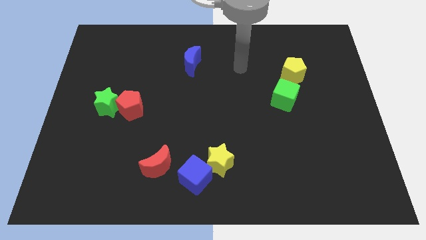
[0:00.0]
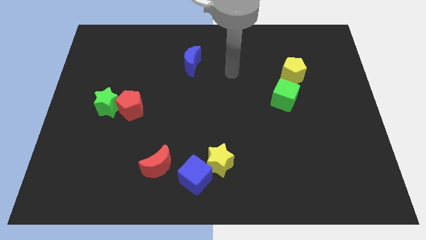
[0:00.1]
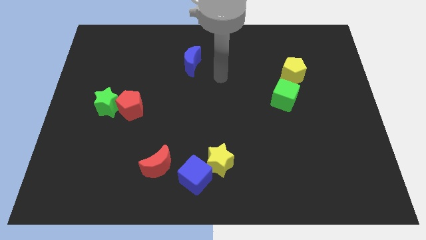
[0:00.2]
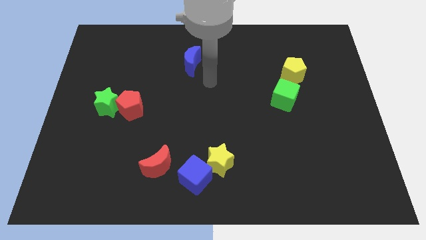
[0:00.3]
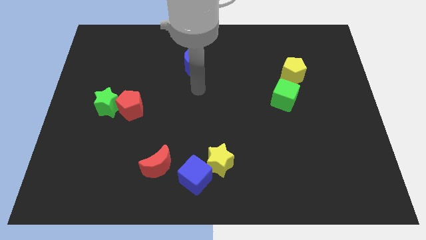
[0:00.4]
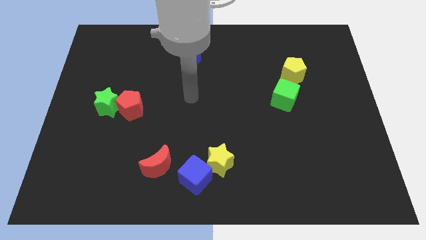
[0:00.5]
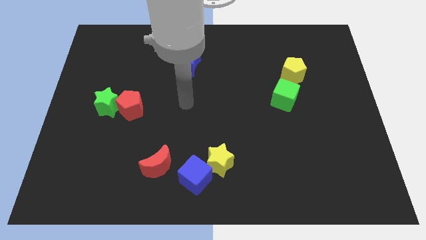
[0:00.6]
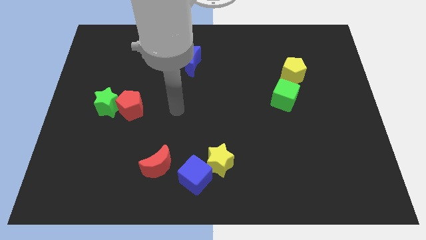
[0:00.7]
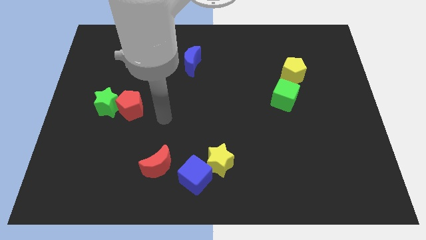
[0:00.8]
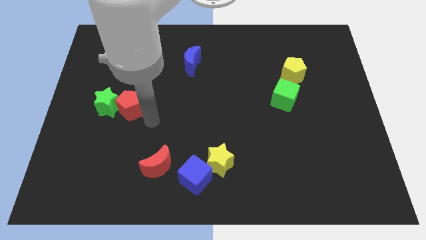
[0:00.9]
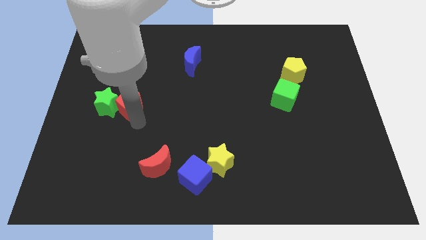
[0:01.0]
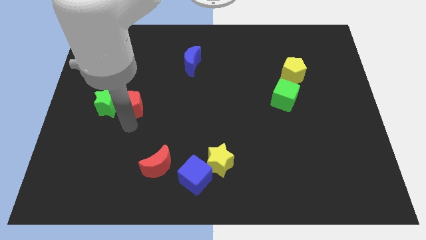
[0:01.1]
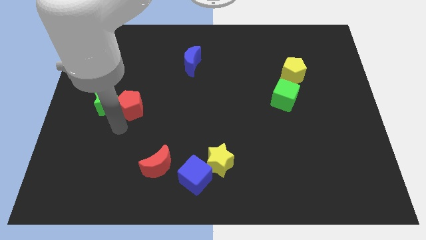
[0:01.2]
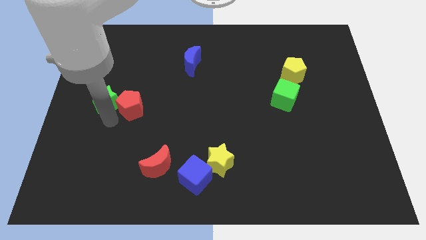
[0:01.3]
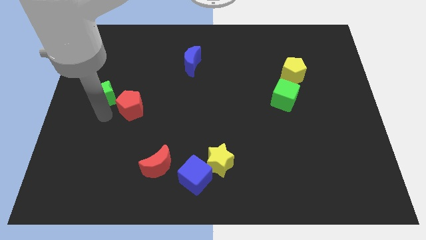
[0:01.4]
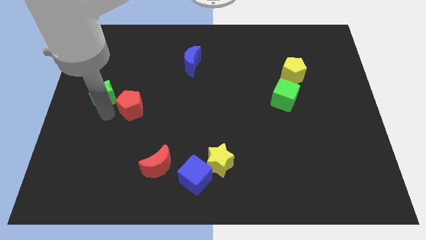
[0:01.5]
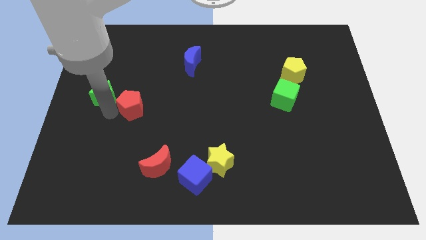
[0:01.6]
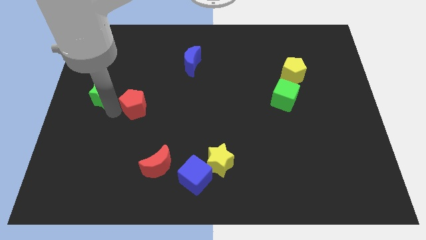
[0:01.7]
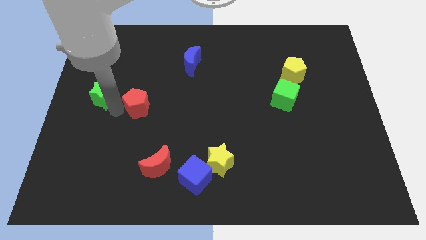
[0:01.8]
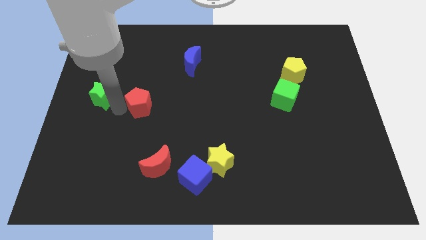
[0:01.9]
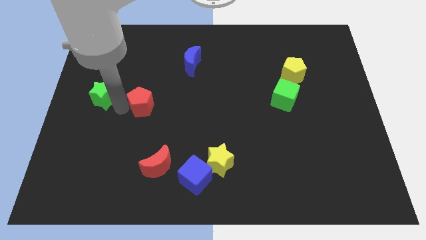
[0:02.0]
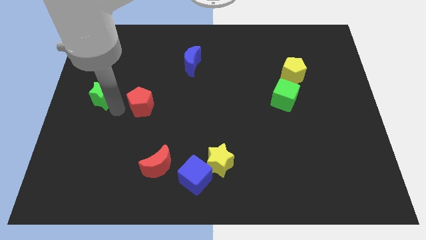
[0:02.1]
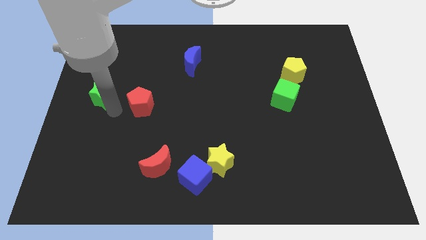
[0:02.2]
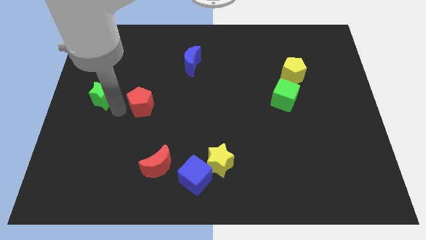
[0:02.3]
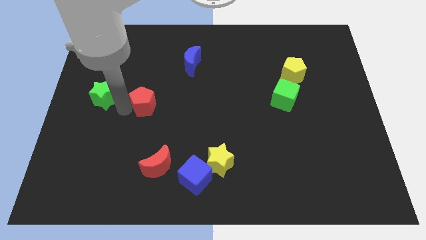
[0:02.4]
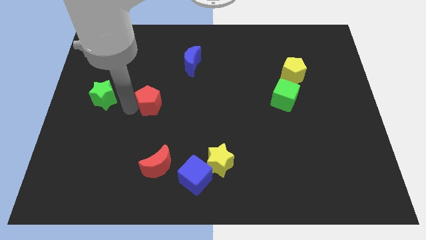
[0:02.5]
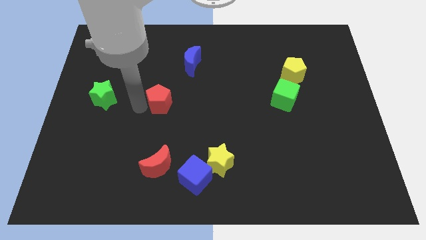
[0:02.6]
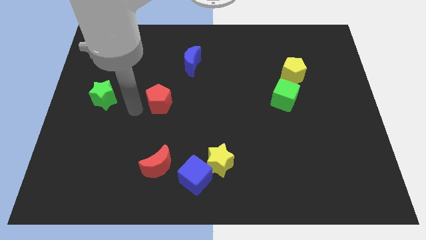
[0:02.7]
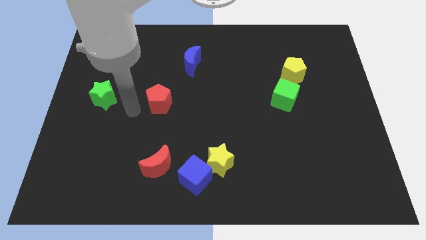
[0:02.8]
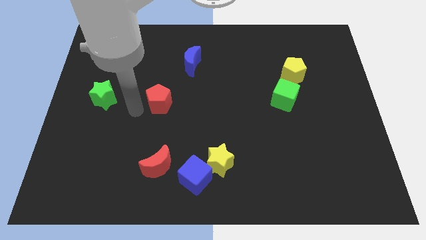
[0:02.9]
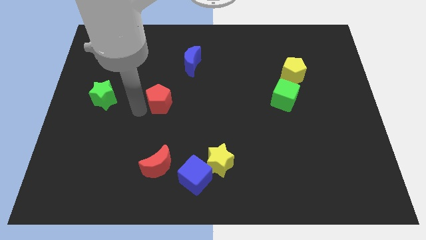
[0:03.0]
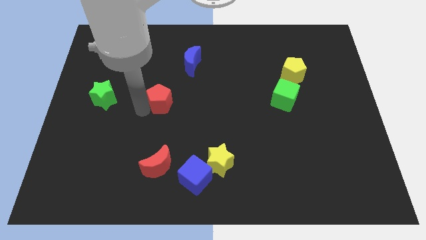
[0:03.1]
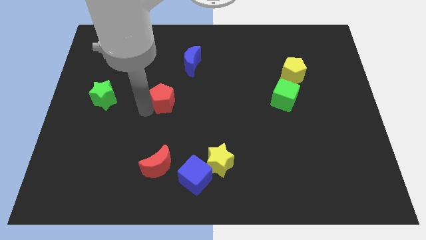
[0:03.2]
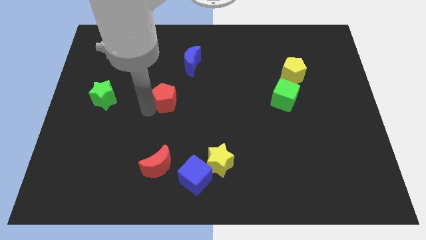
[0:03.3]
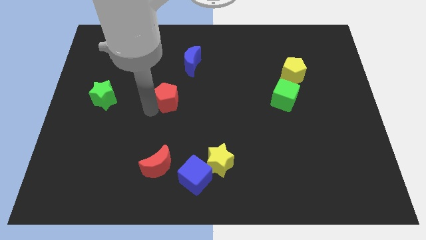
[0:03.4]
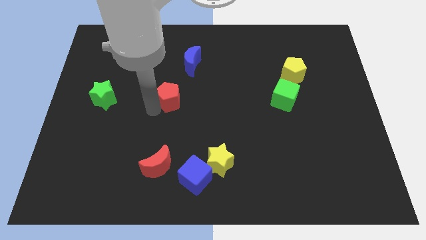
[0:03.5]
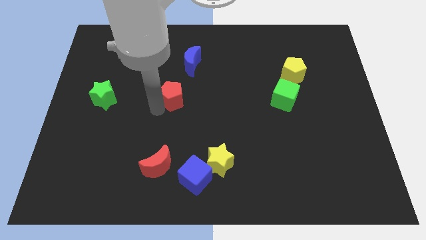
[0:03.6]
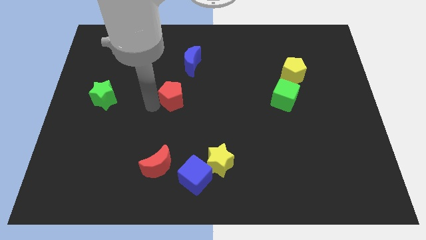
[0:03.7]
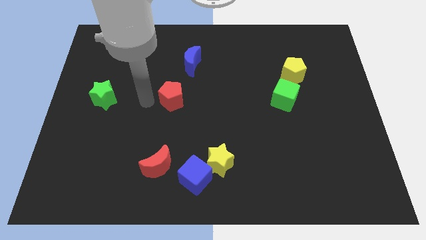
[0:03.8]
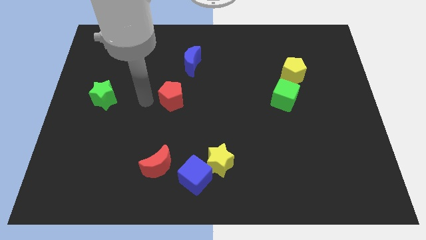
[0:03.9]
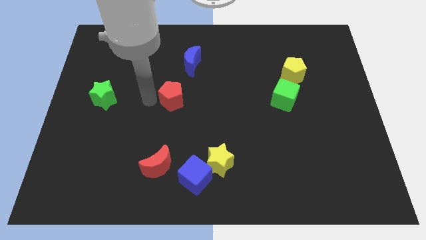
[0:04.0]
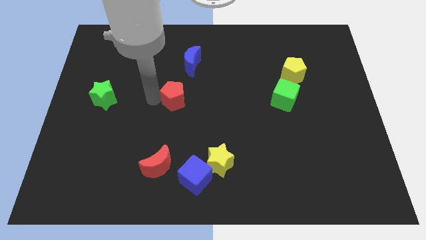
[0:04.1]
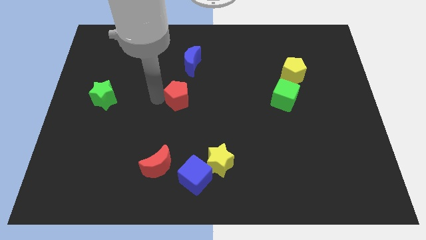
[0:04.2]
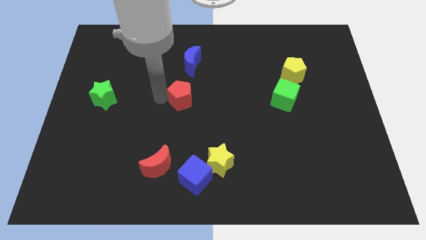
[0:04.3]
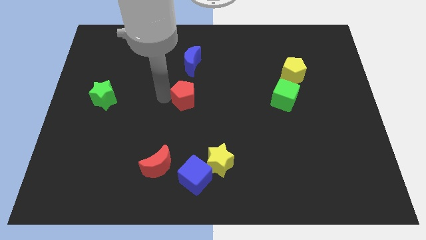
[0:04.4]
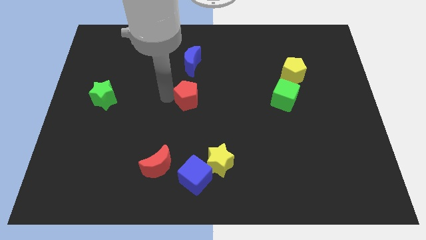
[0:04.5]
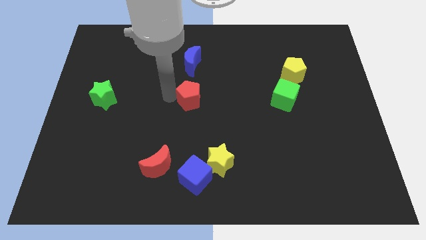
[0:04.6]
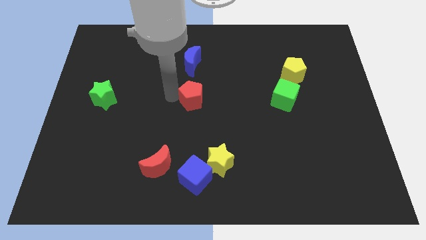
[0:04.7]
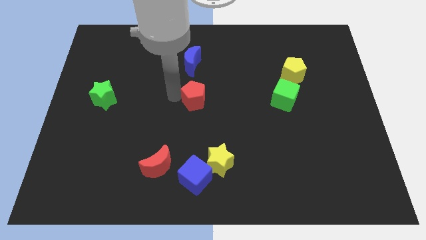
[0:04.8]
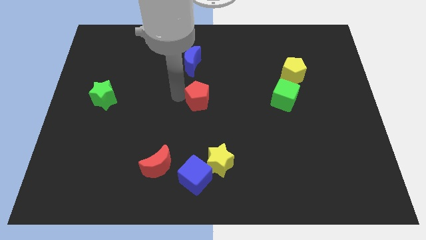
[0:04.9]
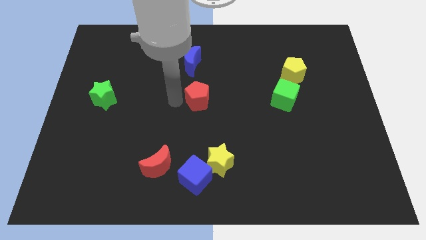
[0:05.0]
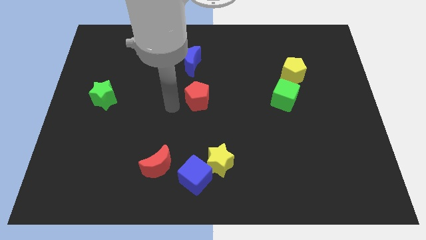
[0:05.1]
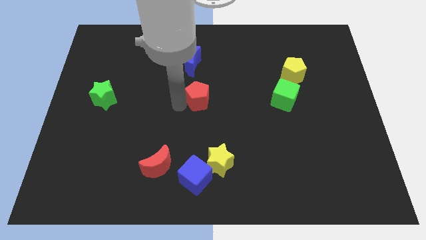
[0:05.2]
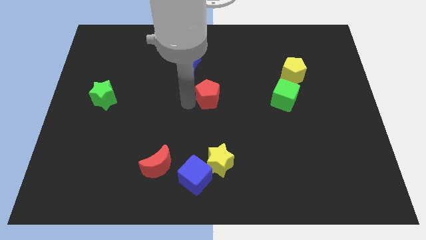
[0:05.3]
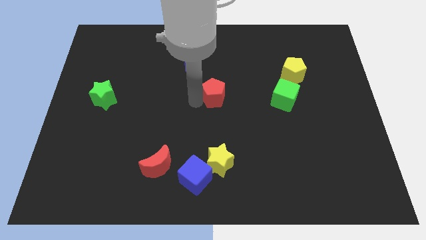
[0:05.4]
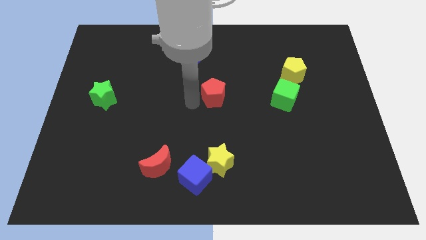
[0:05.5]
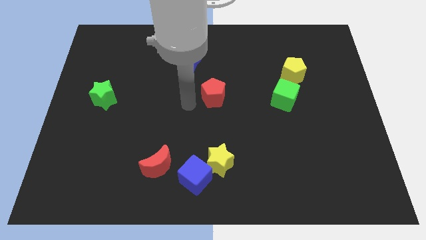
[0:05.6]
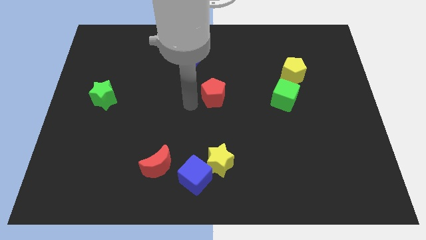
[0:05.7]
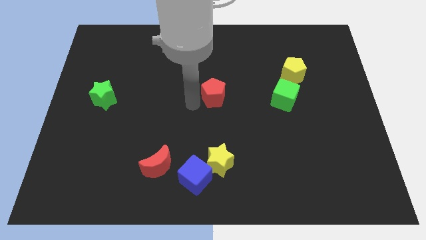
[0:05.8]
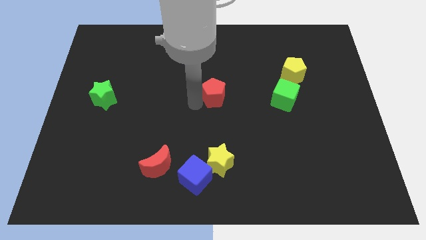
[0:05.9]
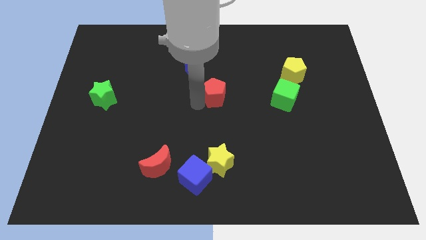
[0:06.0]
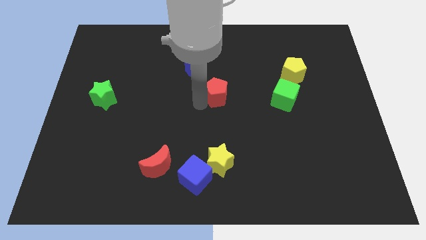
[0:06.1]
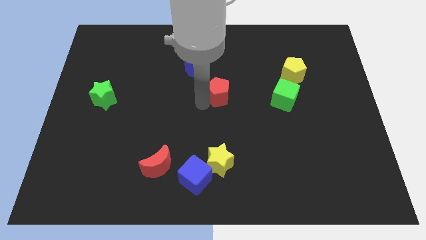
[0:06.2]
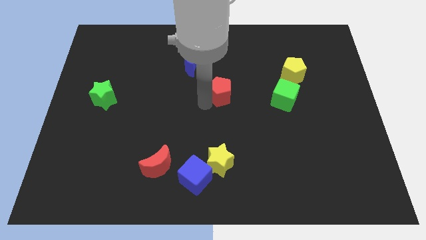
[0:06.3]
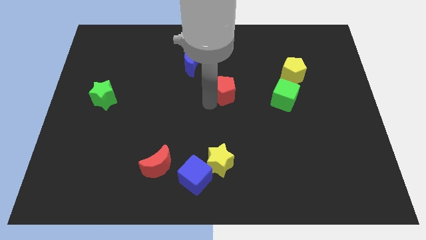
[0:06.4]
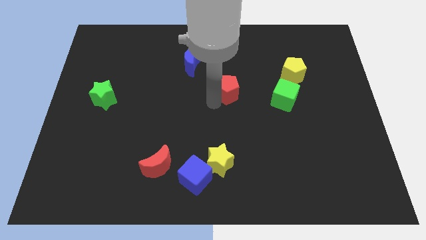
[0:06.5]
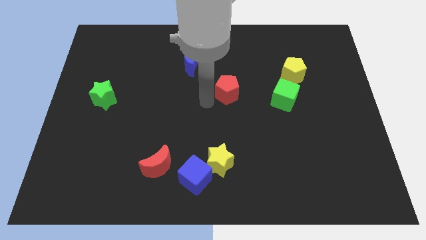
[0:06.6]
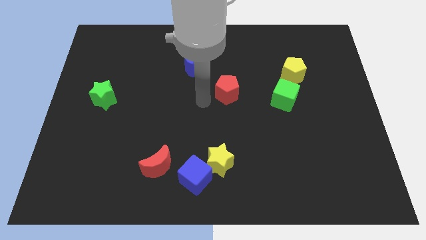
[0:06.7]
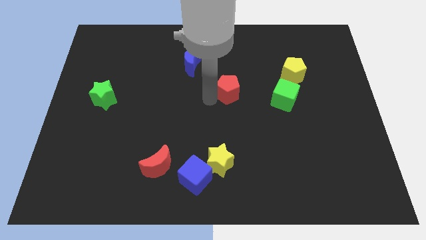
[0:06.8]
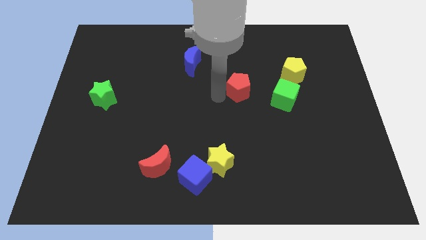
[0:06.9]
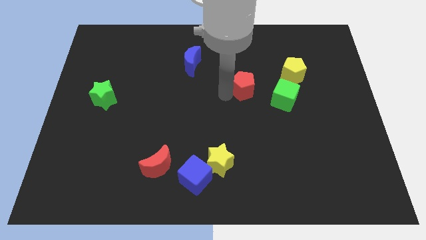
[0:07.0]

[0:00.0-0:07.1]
push the red pentagon to the top left of the green cube
